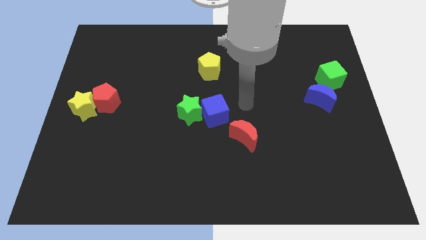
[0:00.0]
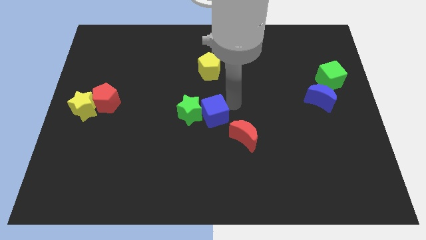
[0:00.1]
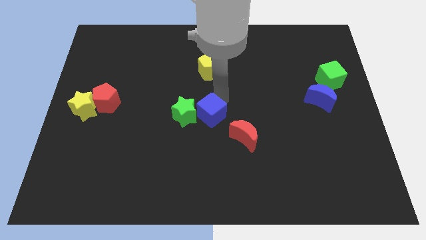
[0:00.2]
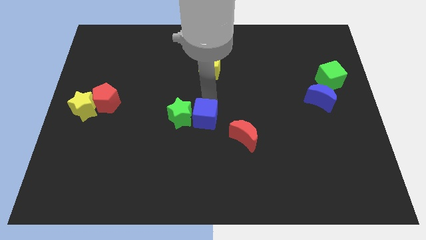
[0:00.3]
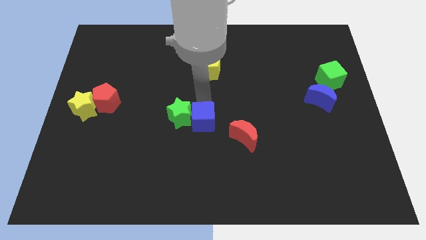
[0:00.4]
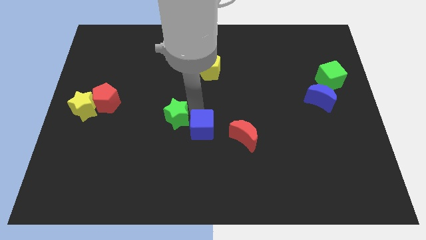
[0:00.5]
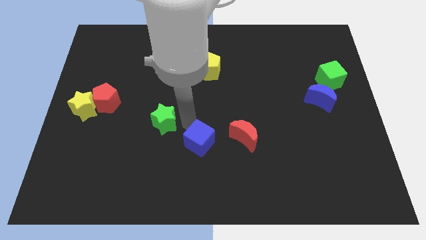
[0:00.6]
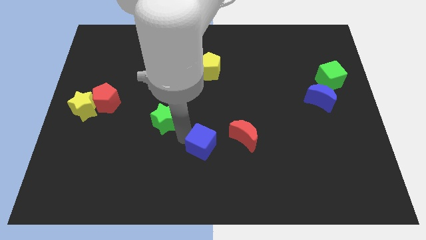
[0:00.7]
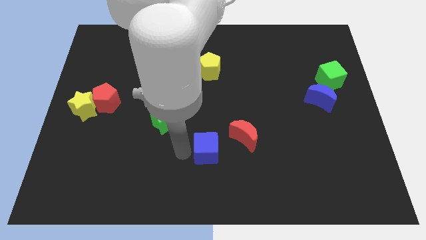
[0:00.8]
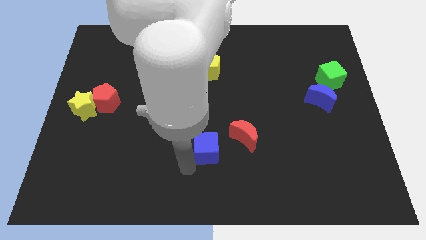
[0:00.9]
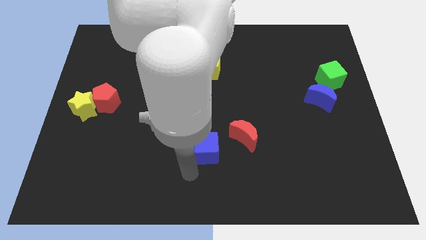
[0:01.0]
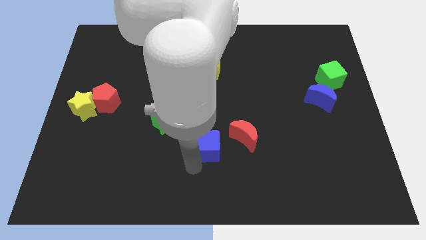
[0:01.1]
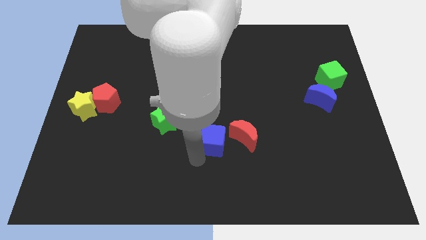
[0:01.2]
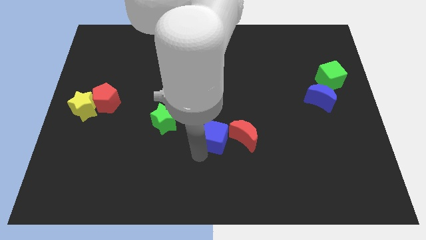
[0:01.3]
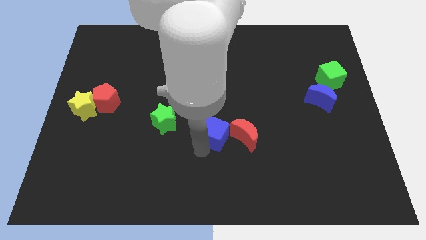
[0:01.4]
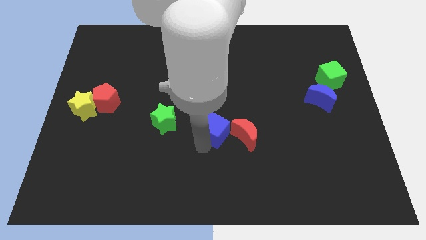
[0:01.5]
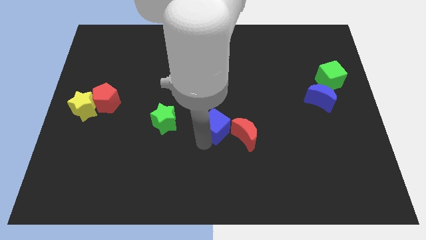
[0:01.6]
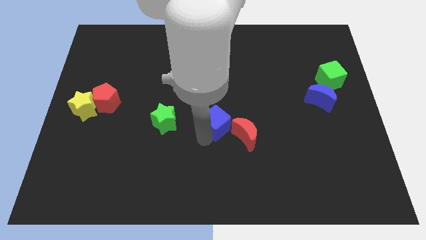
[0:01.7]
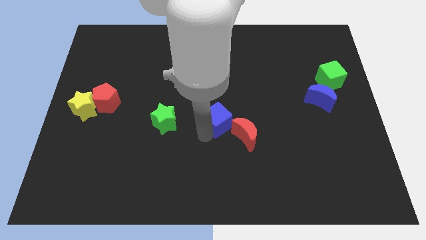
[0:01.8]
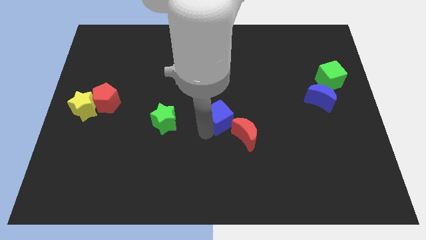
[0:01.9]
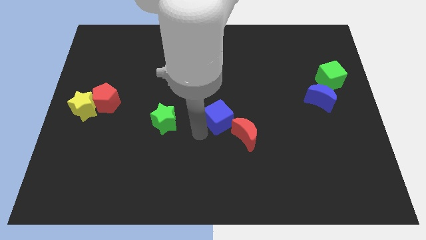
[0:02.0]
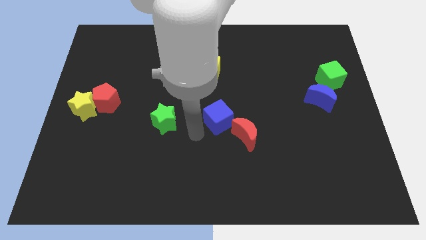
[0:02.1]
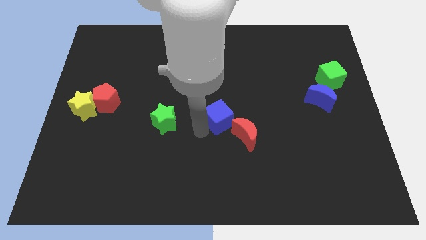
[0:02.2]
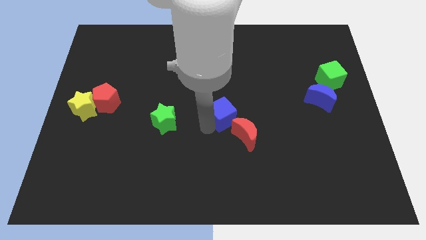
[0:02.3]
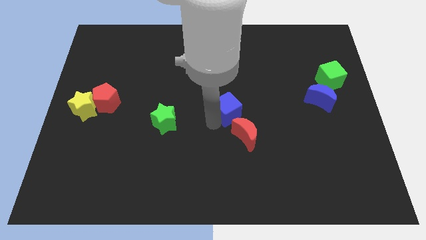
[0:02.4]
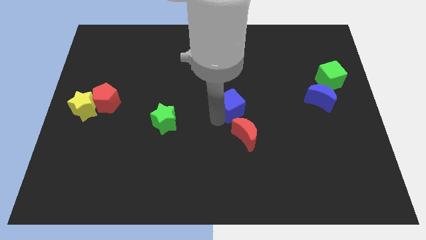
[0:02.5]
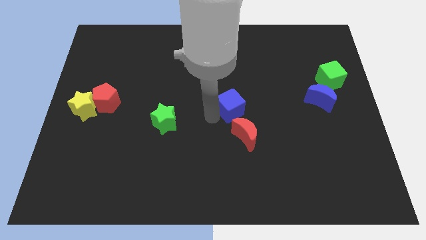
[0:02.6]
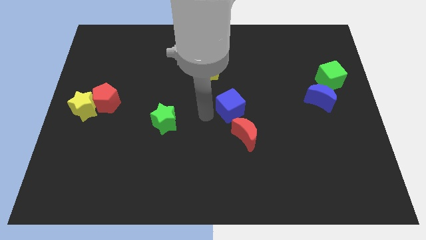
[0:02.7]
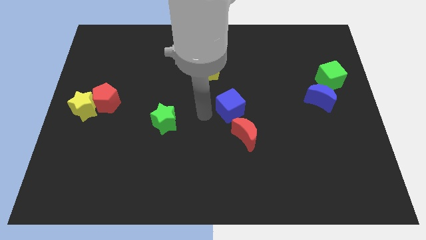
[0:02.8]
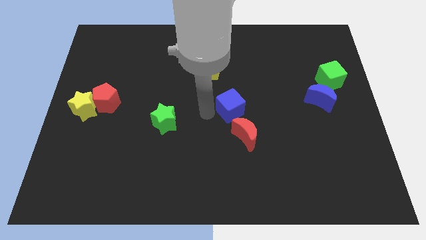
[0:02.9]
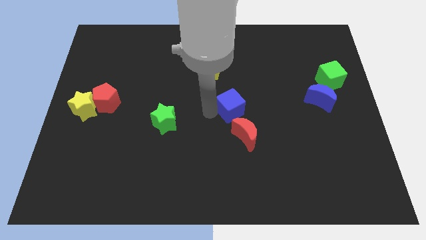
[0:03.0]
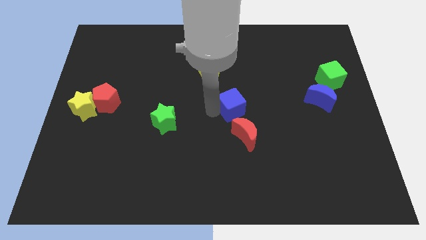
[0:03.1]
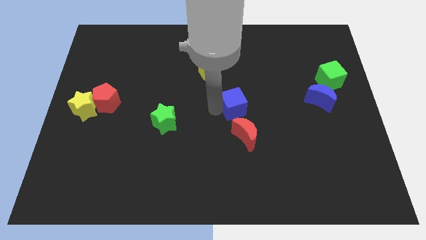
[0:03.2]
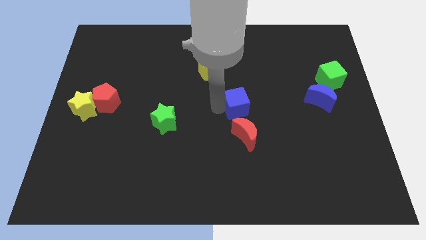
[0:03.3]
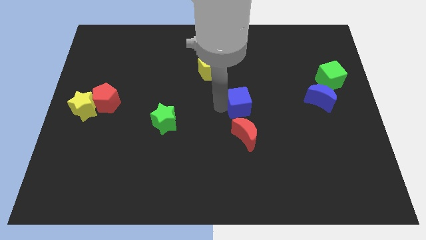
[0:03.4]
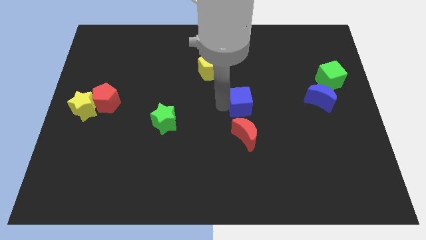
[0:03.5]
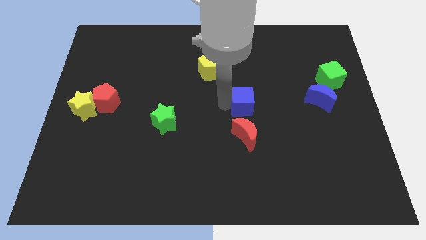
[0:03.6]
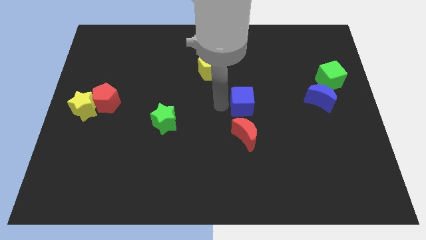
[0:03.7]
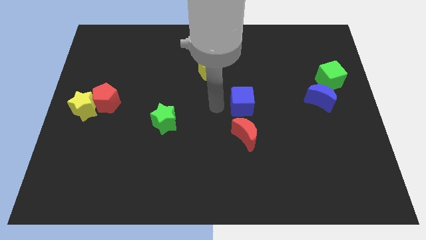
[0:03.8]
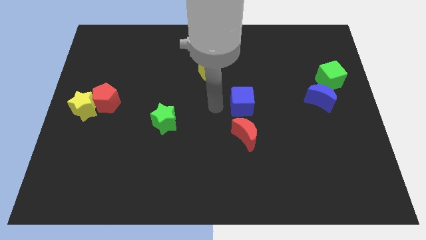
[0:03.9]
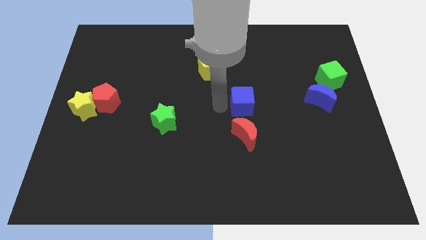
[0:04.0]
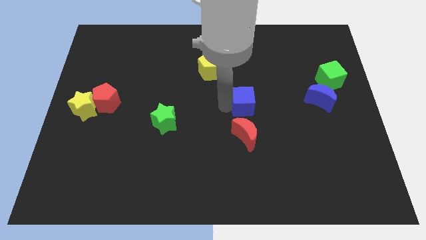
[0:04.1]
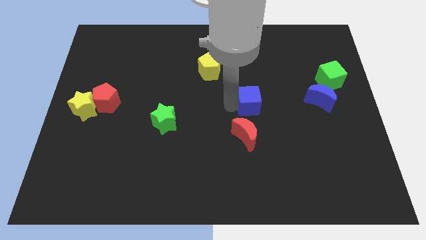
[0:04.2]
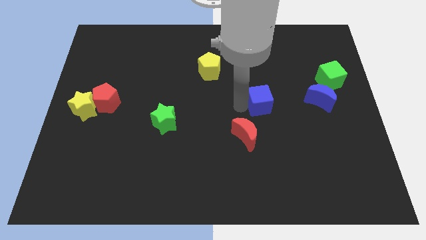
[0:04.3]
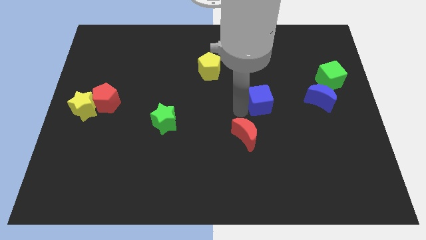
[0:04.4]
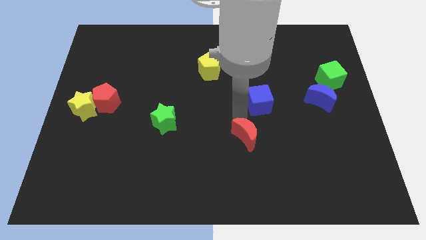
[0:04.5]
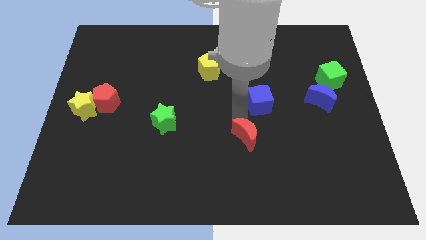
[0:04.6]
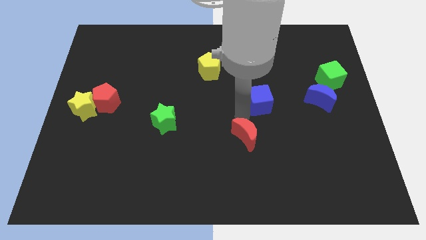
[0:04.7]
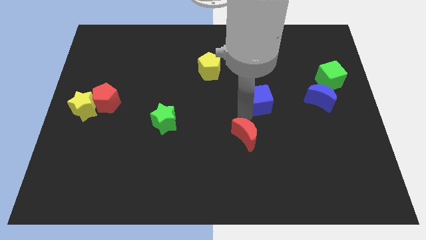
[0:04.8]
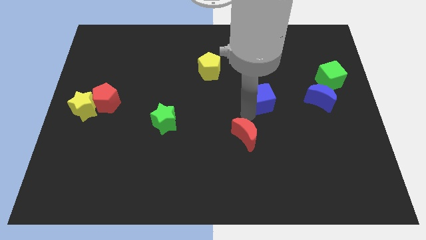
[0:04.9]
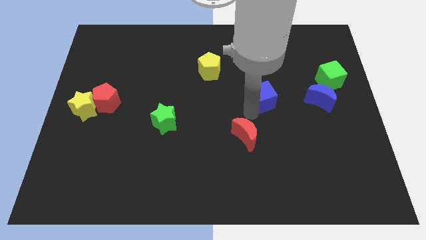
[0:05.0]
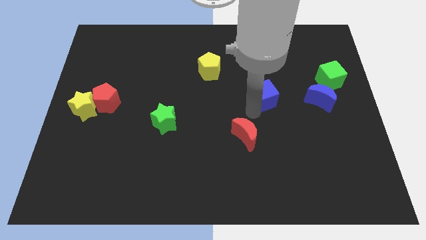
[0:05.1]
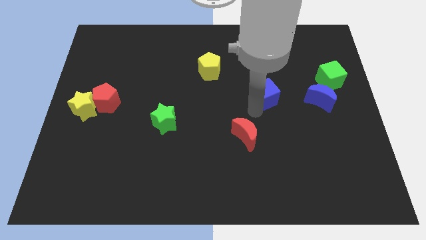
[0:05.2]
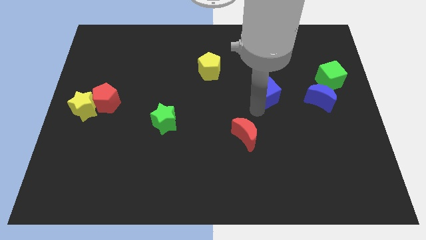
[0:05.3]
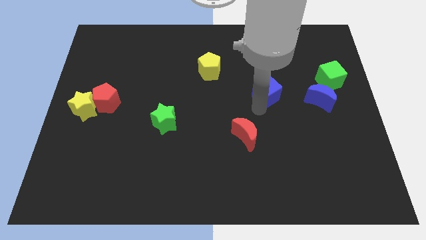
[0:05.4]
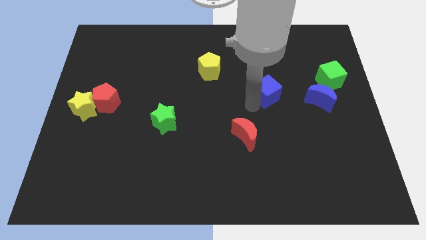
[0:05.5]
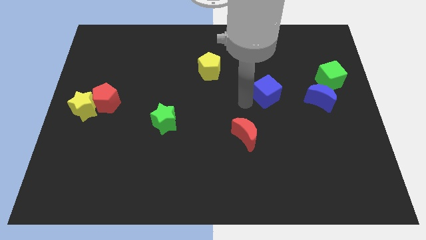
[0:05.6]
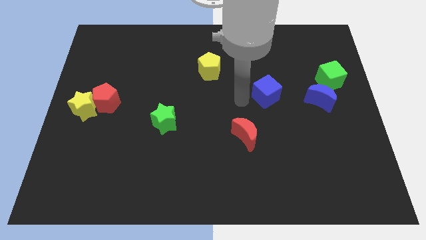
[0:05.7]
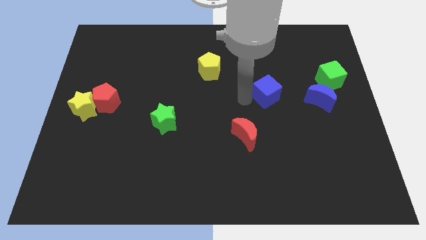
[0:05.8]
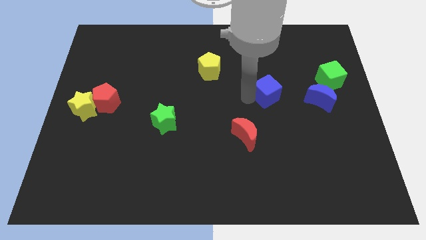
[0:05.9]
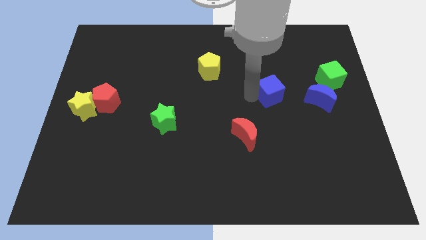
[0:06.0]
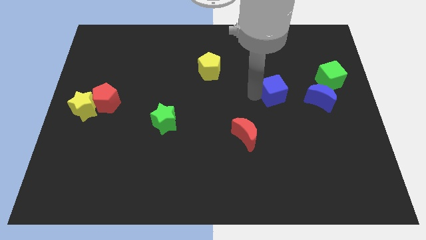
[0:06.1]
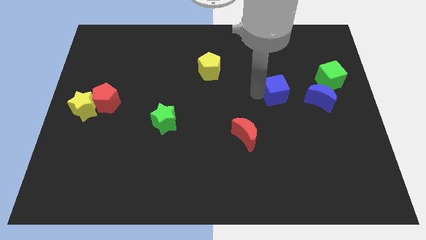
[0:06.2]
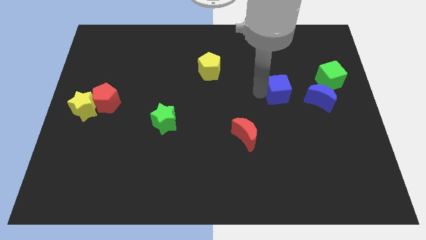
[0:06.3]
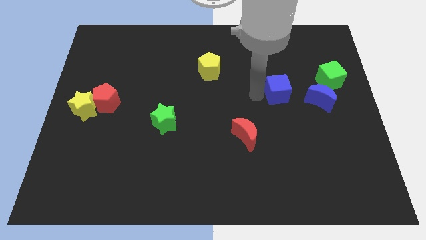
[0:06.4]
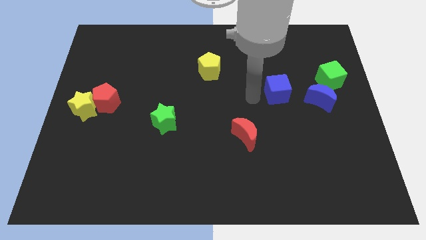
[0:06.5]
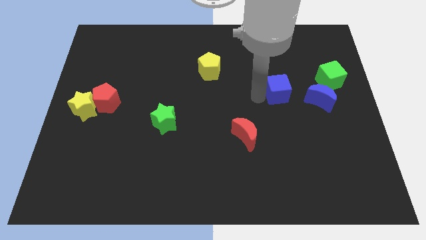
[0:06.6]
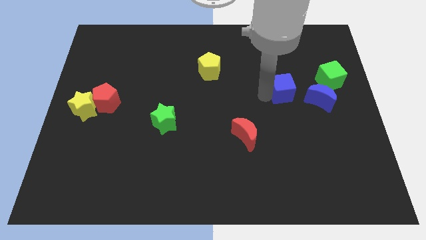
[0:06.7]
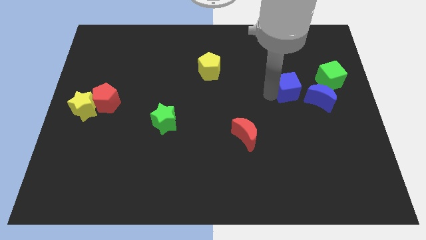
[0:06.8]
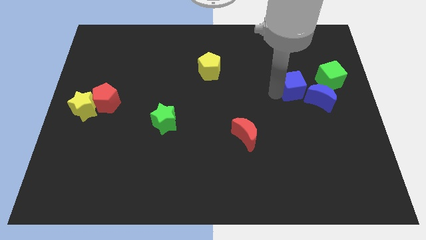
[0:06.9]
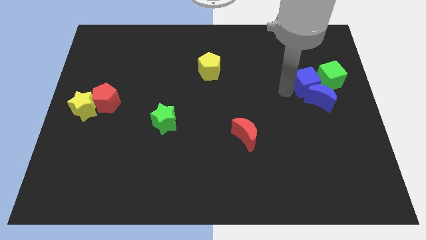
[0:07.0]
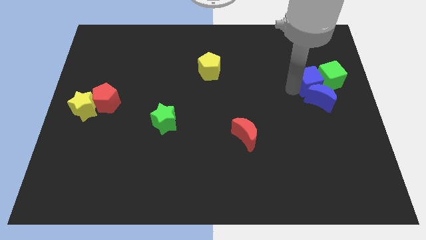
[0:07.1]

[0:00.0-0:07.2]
push the blue cube next to the green cube

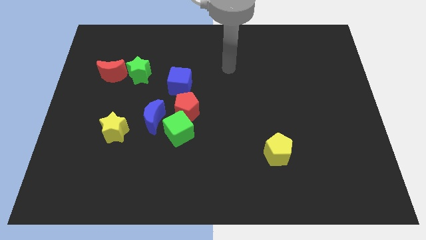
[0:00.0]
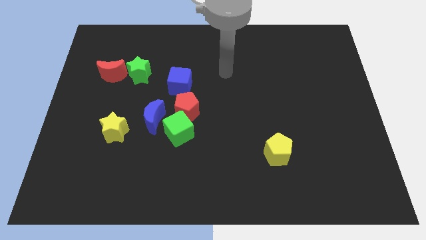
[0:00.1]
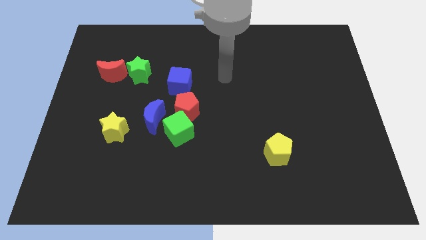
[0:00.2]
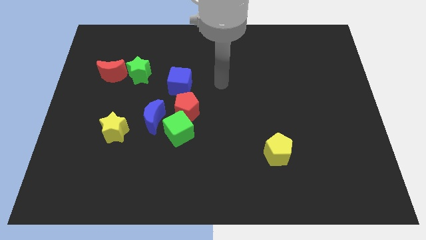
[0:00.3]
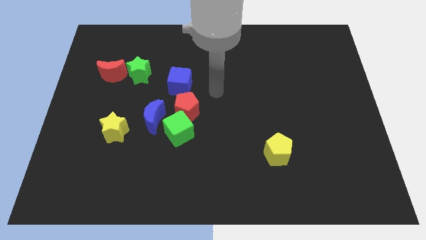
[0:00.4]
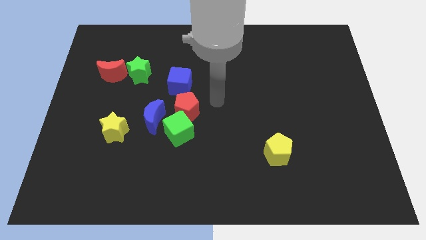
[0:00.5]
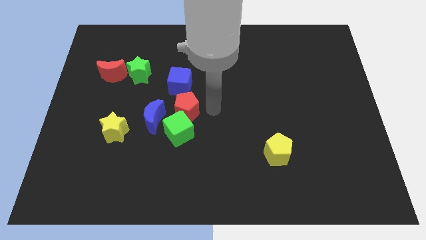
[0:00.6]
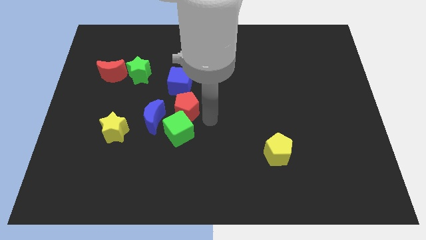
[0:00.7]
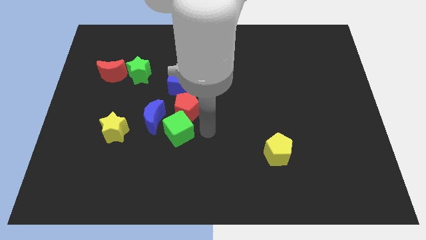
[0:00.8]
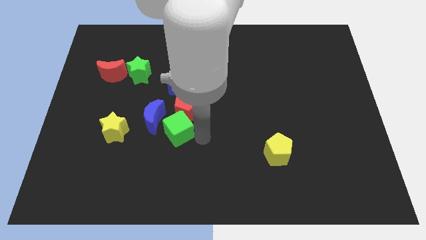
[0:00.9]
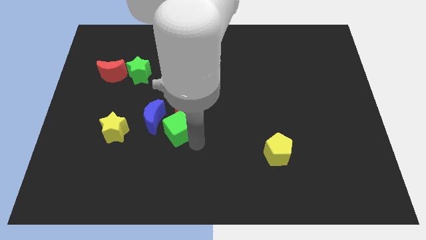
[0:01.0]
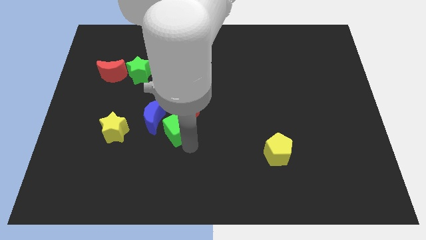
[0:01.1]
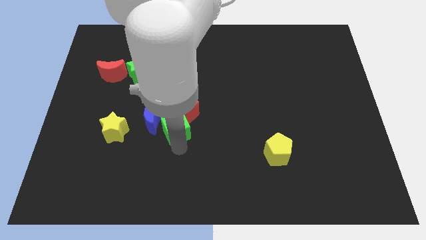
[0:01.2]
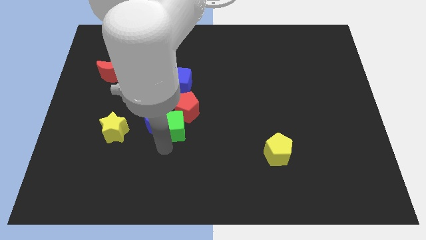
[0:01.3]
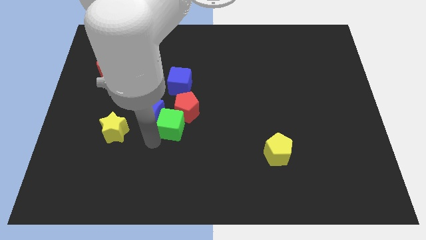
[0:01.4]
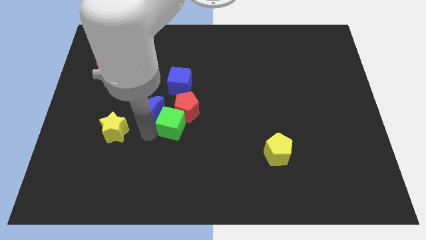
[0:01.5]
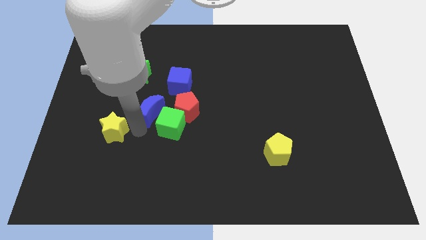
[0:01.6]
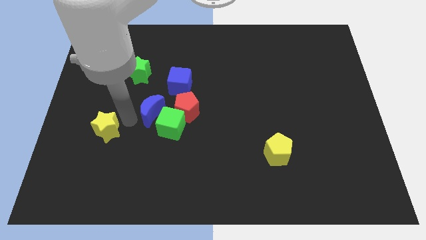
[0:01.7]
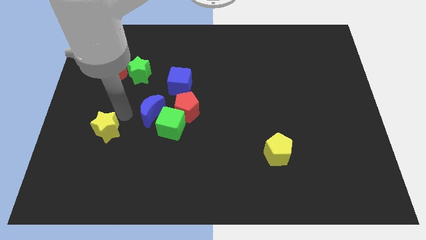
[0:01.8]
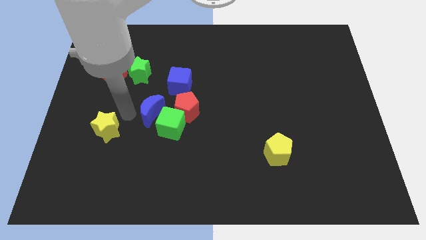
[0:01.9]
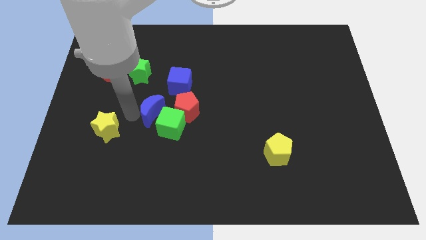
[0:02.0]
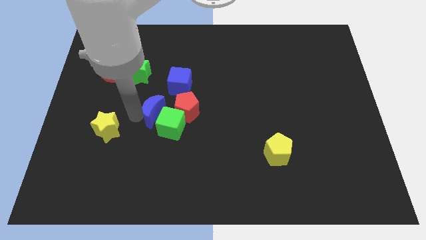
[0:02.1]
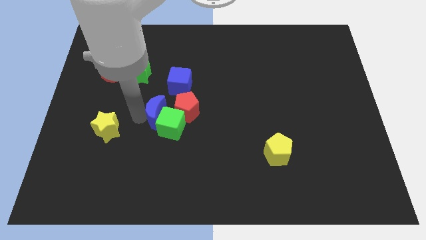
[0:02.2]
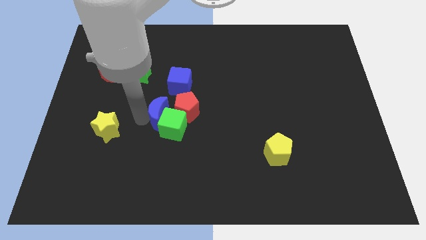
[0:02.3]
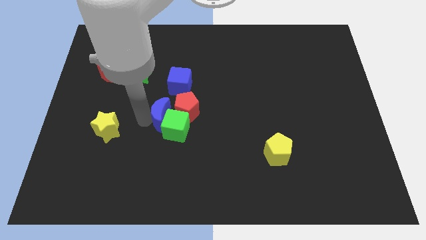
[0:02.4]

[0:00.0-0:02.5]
put the blue moon close to the red pentagon
